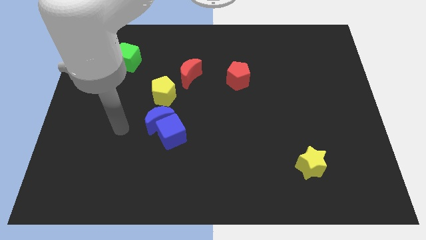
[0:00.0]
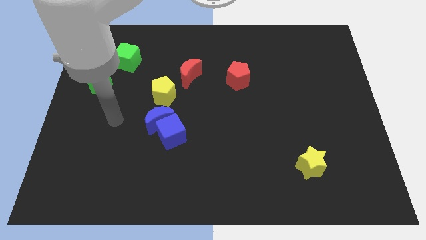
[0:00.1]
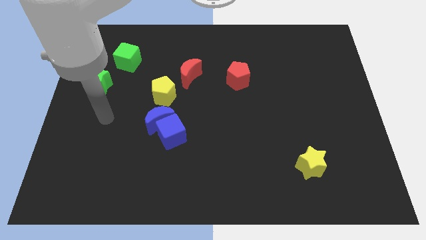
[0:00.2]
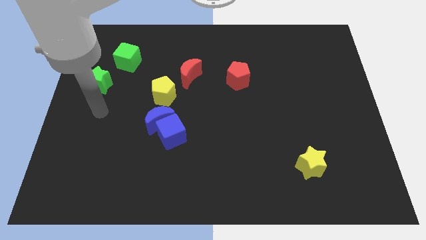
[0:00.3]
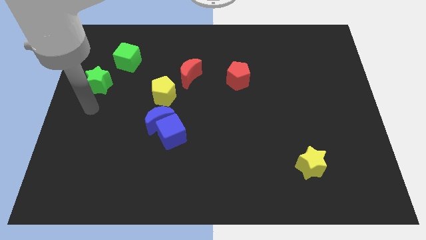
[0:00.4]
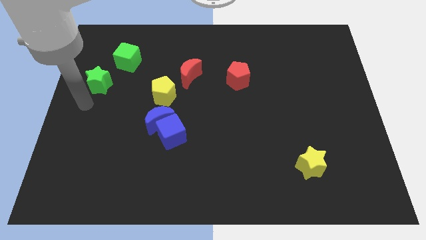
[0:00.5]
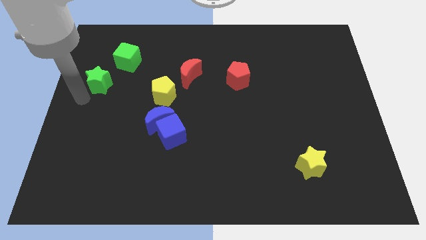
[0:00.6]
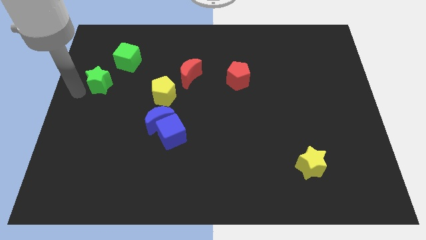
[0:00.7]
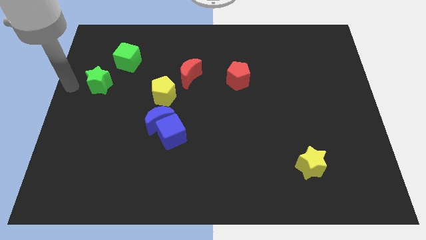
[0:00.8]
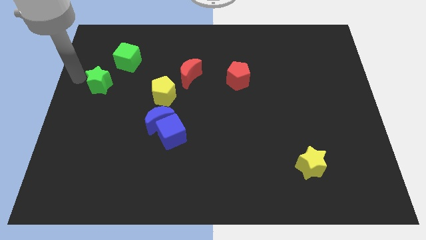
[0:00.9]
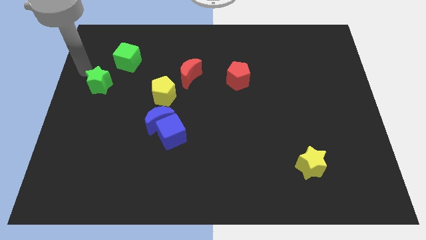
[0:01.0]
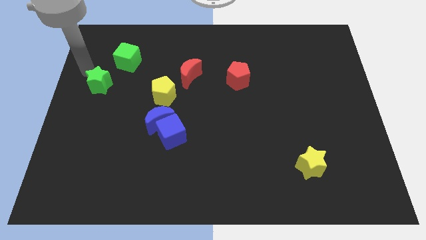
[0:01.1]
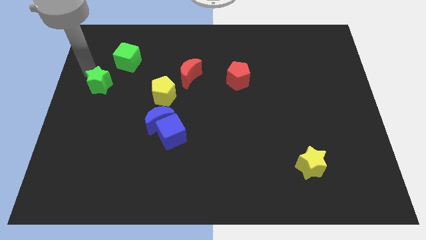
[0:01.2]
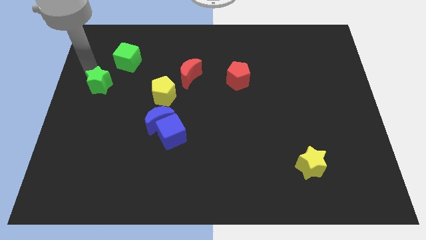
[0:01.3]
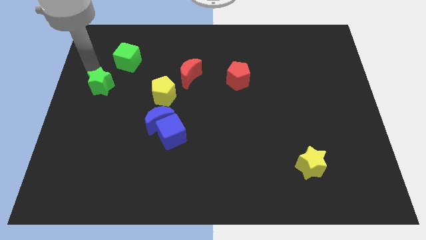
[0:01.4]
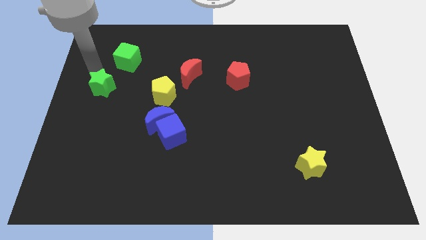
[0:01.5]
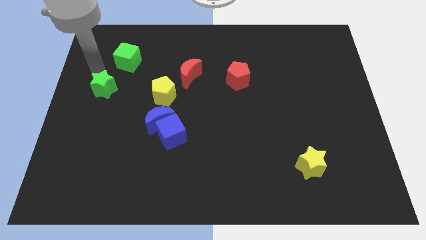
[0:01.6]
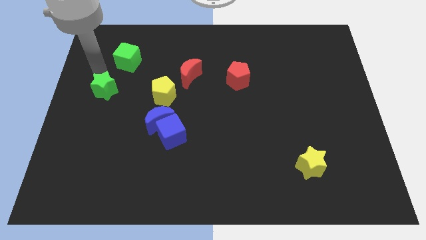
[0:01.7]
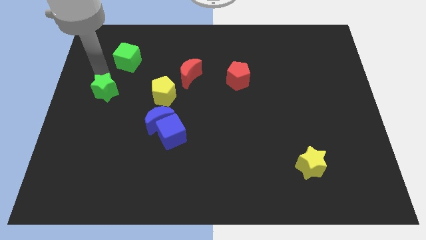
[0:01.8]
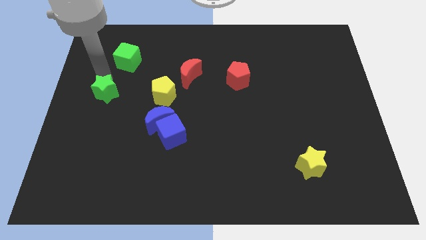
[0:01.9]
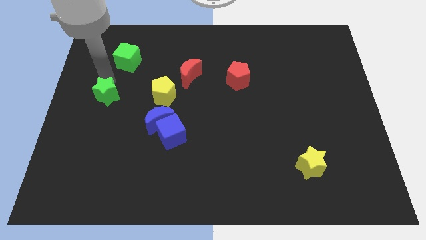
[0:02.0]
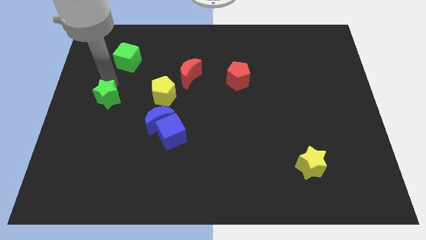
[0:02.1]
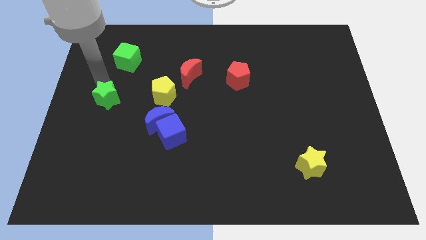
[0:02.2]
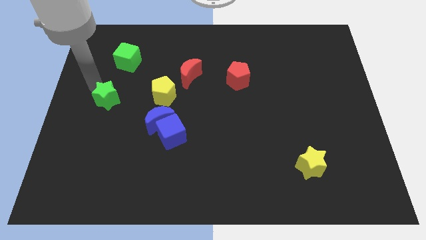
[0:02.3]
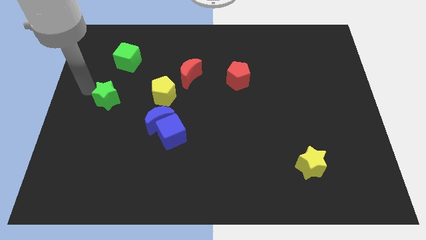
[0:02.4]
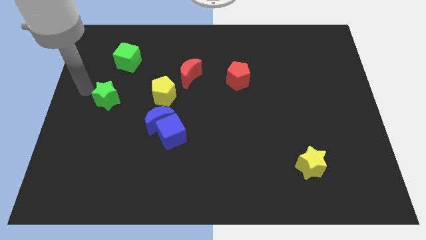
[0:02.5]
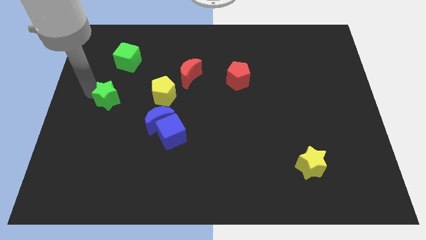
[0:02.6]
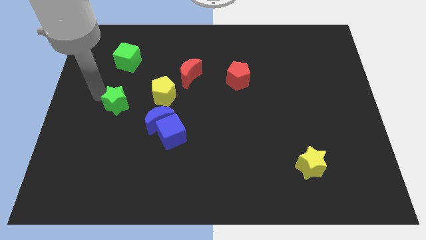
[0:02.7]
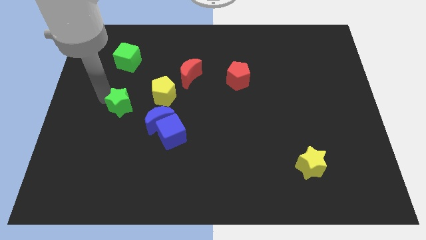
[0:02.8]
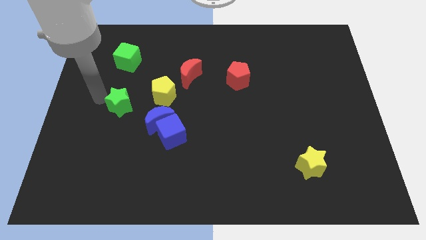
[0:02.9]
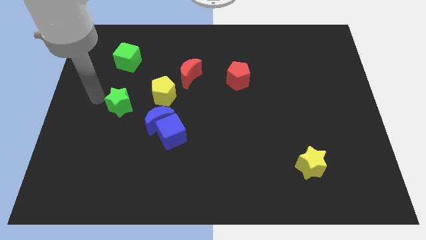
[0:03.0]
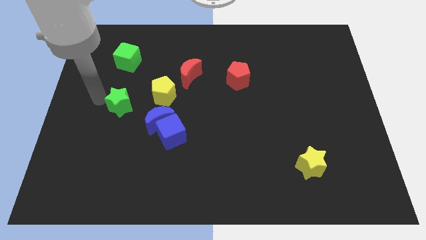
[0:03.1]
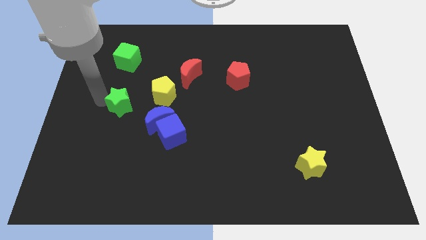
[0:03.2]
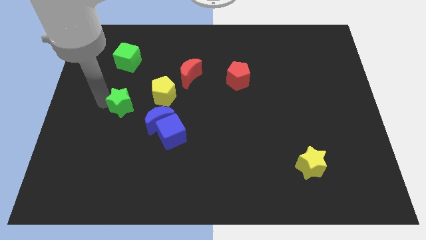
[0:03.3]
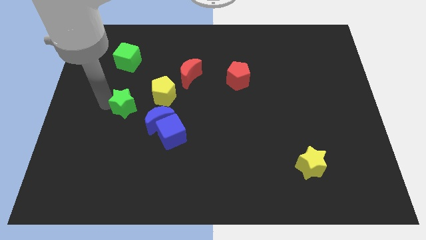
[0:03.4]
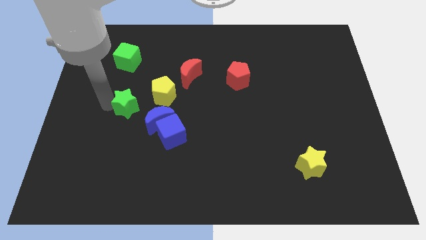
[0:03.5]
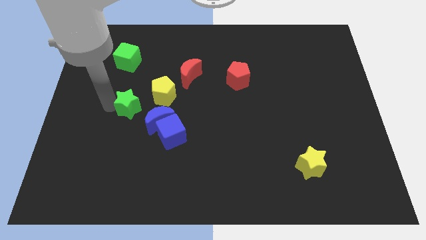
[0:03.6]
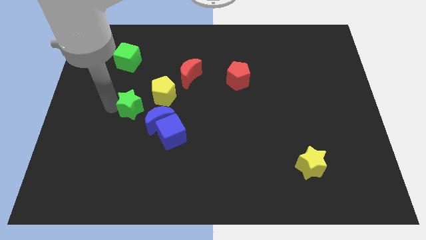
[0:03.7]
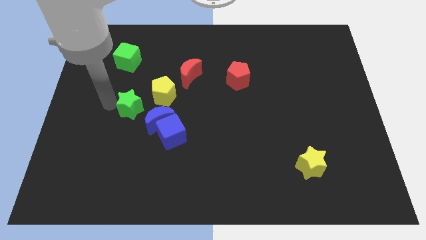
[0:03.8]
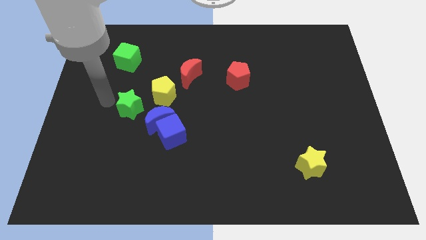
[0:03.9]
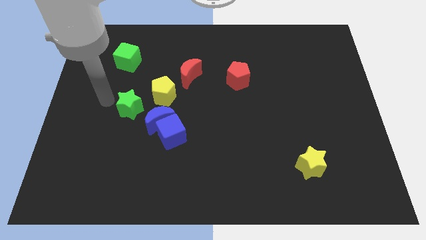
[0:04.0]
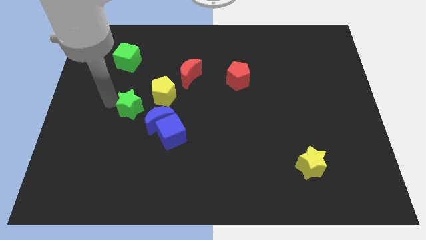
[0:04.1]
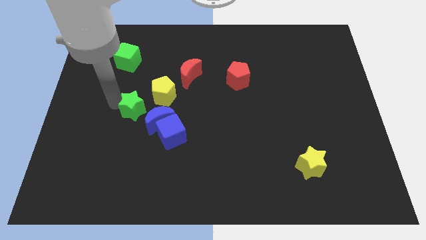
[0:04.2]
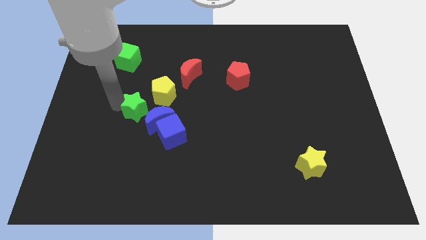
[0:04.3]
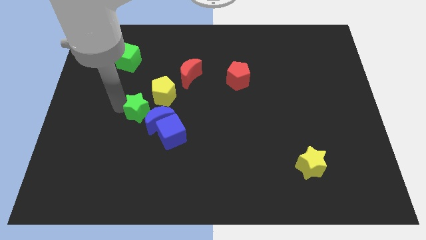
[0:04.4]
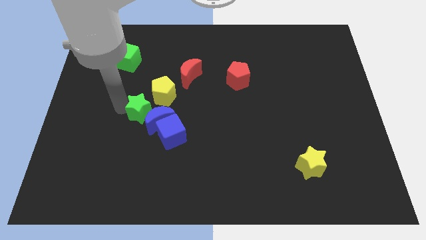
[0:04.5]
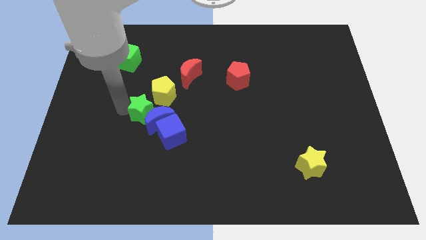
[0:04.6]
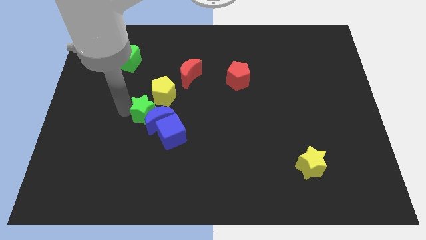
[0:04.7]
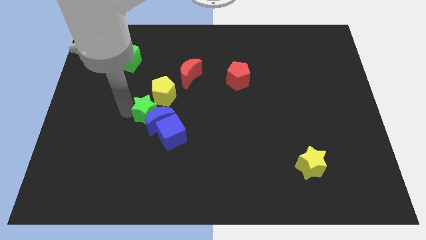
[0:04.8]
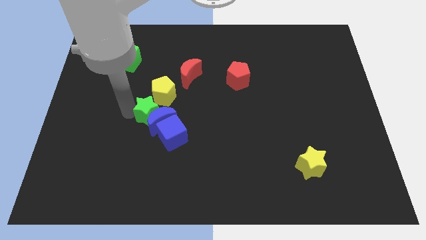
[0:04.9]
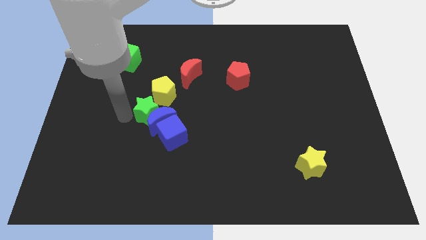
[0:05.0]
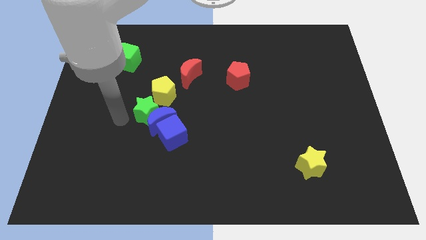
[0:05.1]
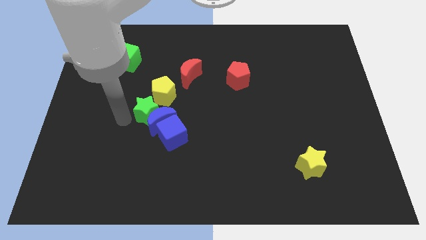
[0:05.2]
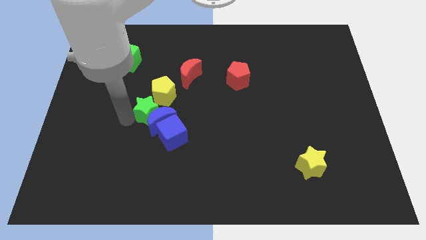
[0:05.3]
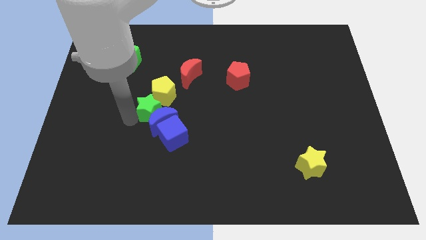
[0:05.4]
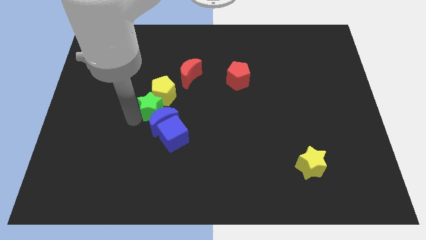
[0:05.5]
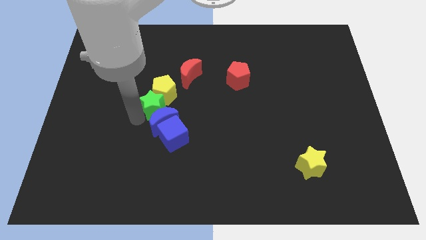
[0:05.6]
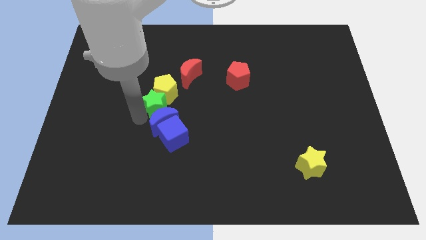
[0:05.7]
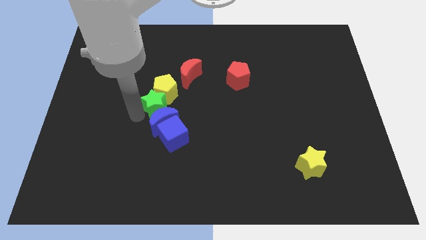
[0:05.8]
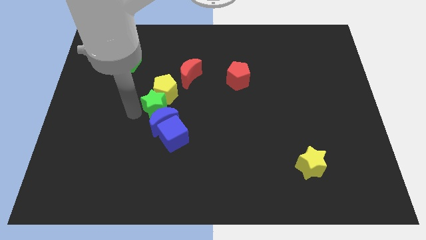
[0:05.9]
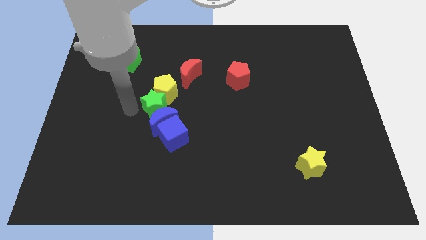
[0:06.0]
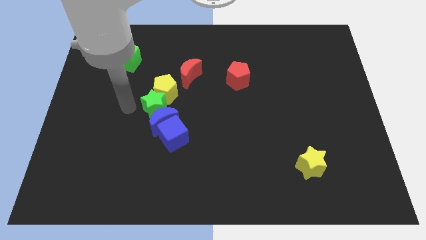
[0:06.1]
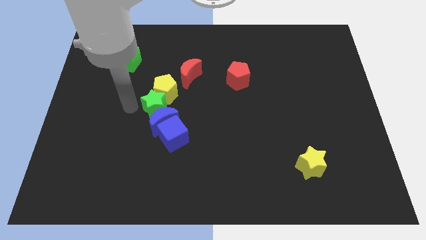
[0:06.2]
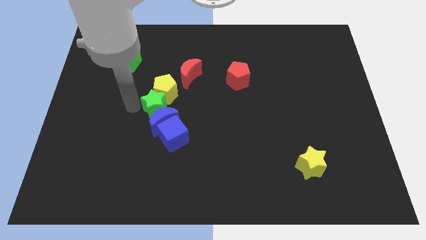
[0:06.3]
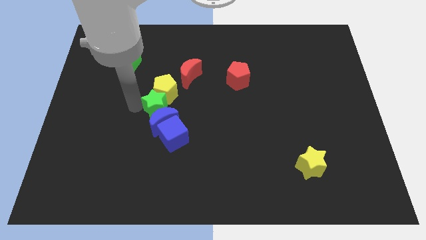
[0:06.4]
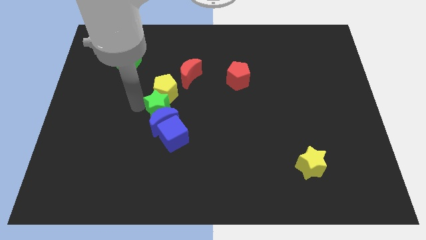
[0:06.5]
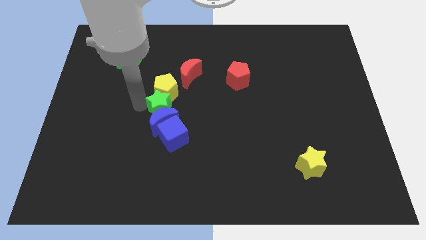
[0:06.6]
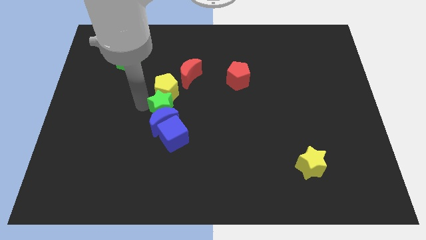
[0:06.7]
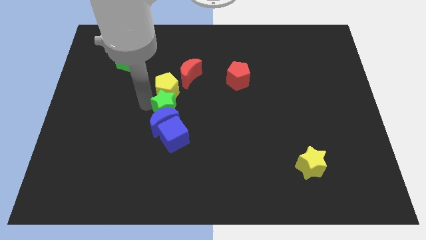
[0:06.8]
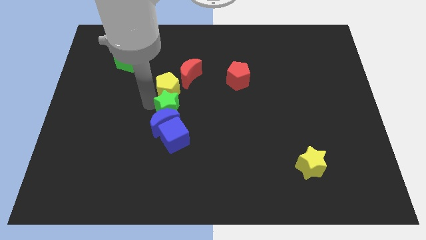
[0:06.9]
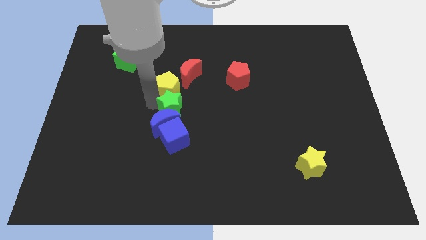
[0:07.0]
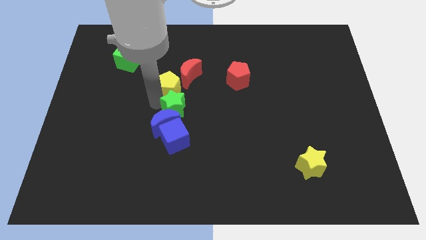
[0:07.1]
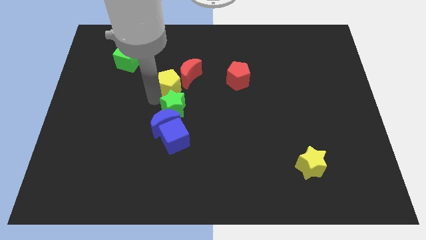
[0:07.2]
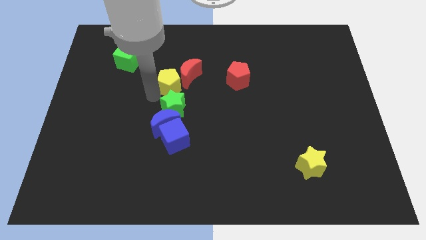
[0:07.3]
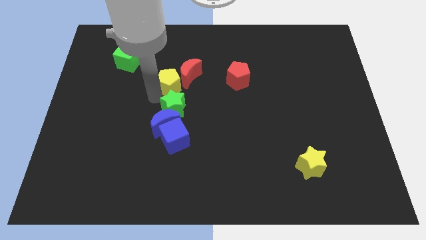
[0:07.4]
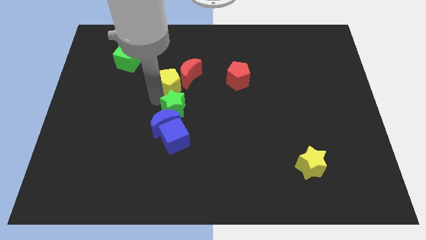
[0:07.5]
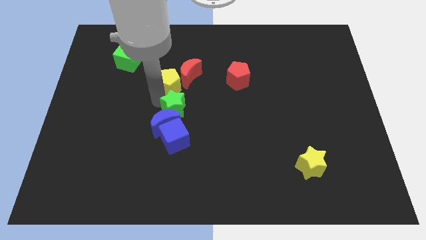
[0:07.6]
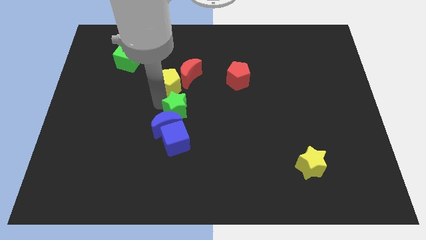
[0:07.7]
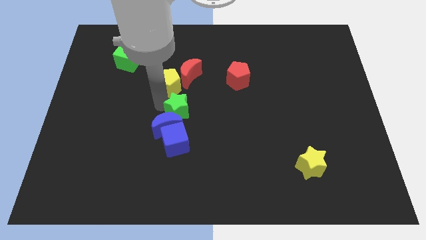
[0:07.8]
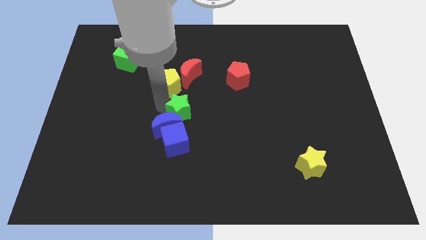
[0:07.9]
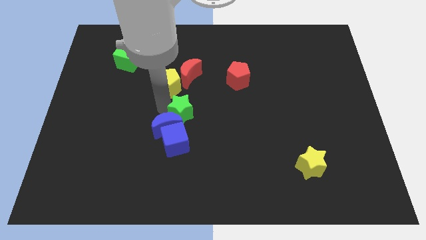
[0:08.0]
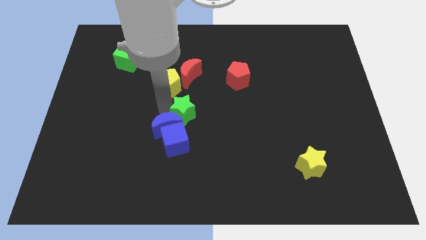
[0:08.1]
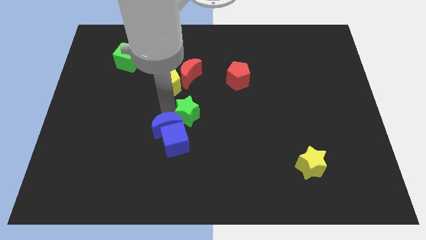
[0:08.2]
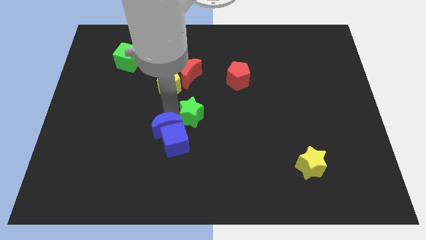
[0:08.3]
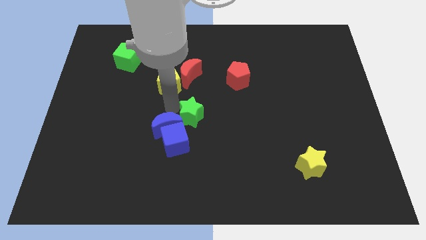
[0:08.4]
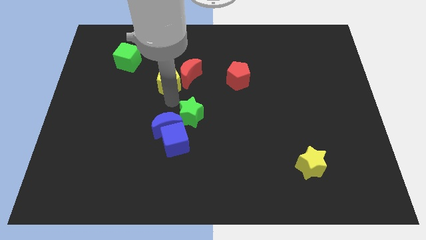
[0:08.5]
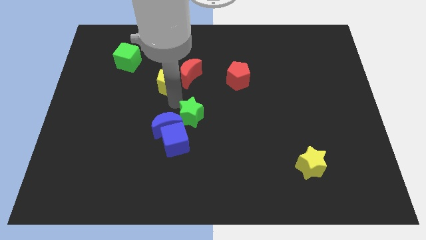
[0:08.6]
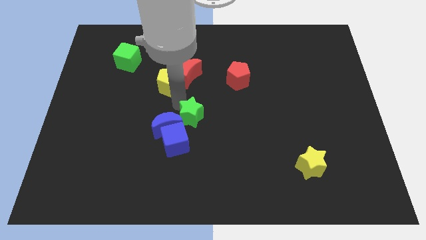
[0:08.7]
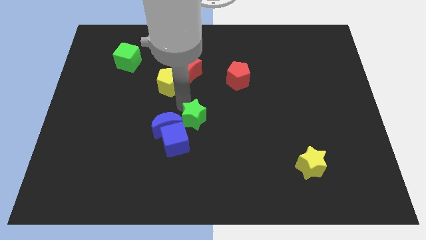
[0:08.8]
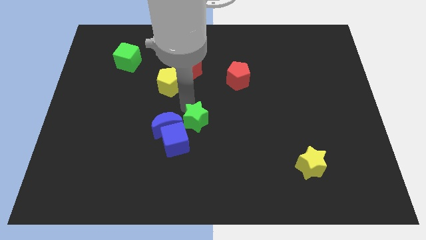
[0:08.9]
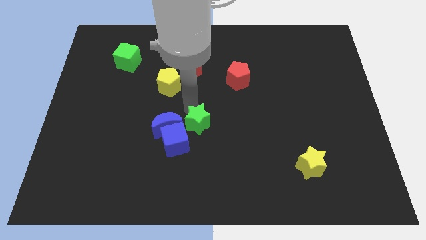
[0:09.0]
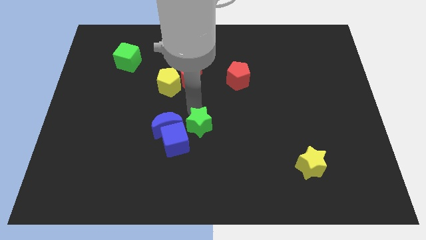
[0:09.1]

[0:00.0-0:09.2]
push the green star just right of the blue cube
